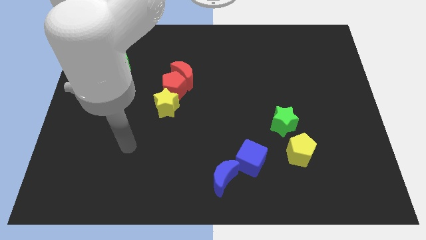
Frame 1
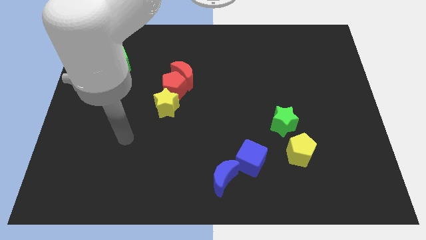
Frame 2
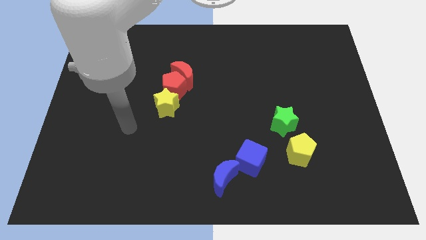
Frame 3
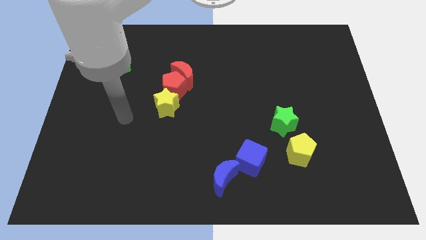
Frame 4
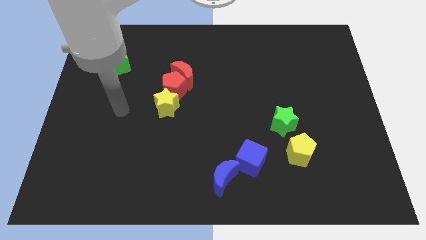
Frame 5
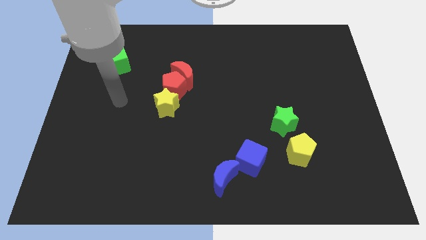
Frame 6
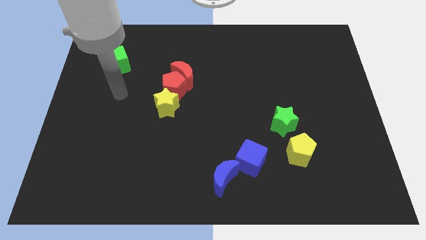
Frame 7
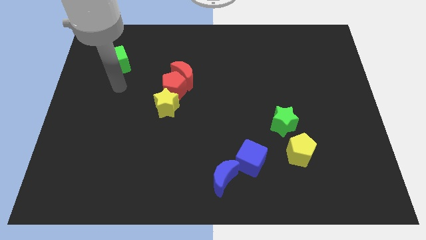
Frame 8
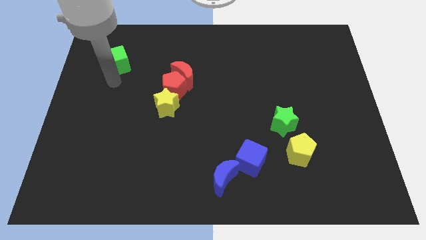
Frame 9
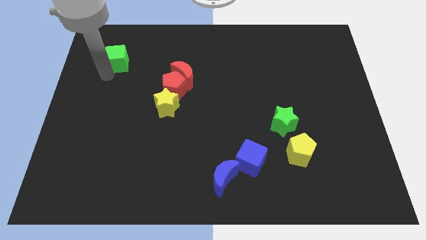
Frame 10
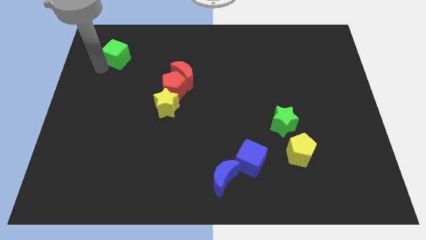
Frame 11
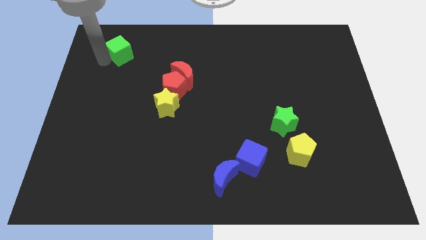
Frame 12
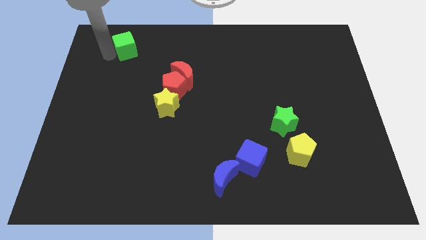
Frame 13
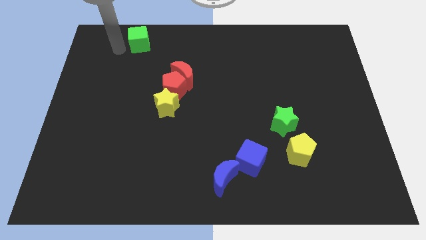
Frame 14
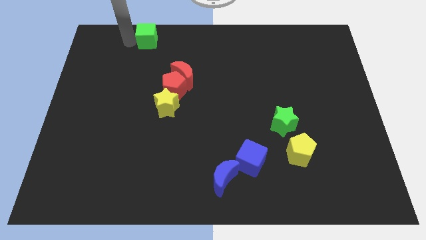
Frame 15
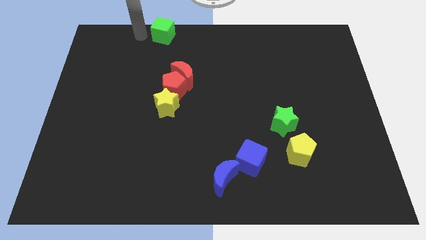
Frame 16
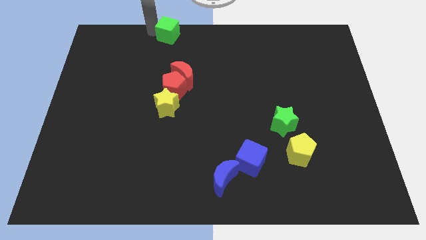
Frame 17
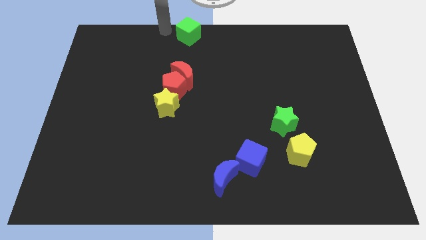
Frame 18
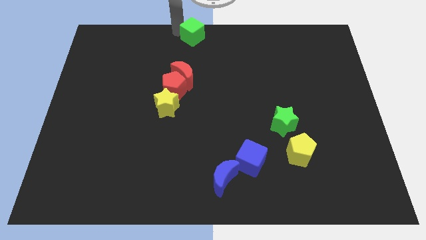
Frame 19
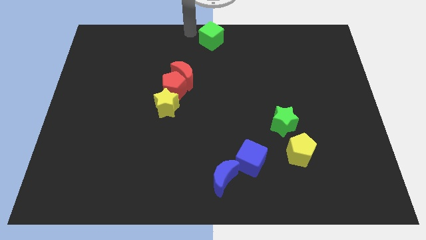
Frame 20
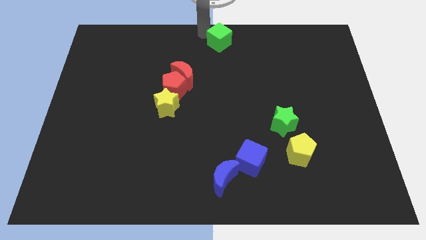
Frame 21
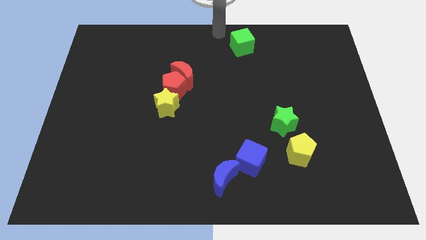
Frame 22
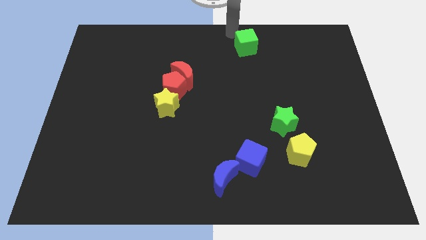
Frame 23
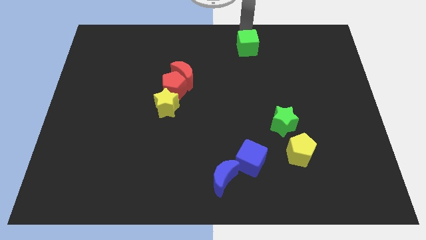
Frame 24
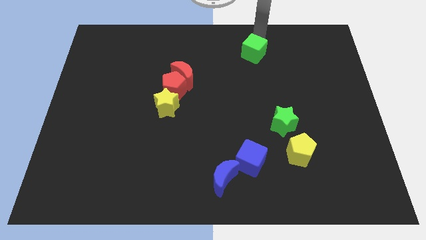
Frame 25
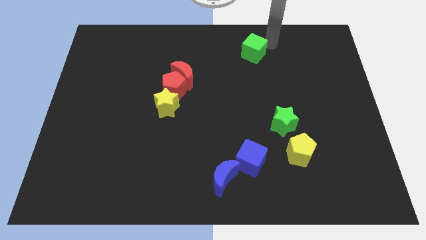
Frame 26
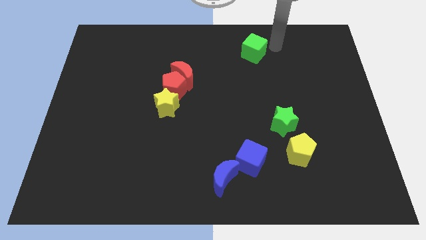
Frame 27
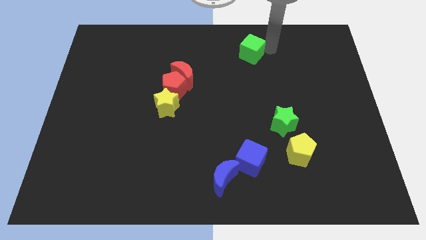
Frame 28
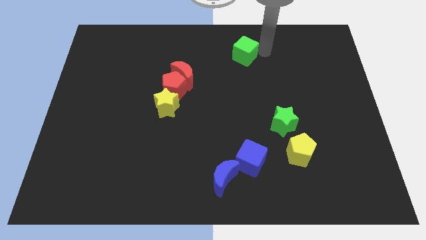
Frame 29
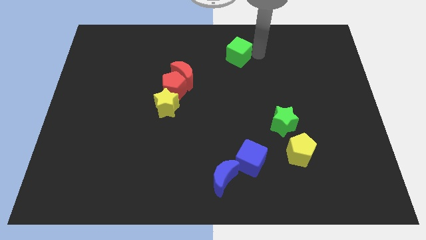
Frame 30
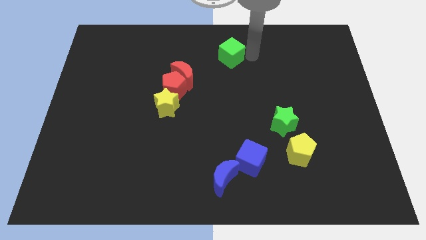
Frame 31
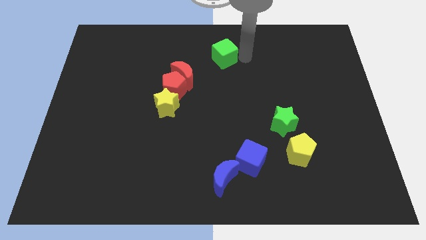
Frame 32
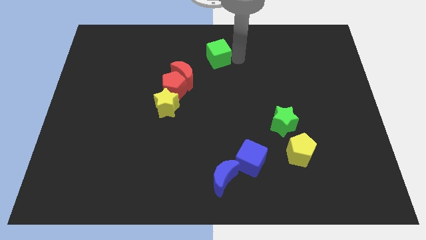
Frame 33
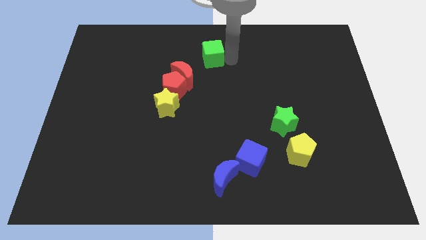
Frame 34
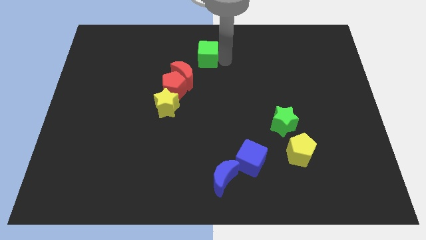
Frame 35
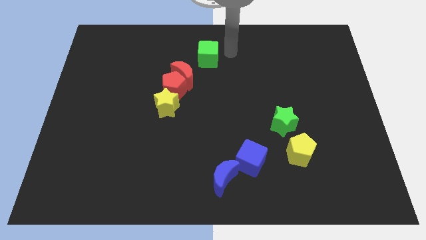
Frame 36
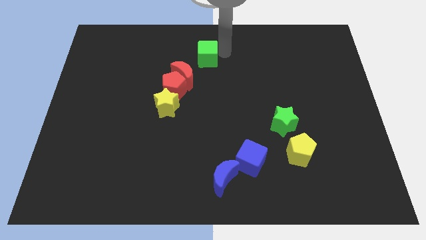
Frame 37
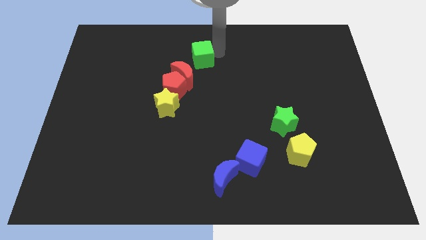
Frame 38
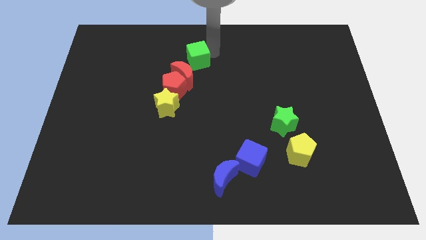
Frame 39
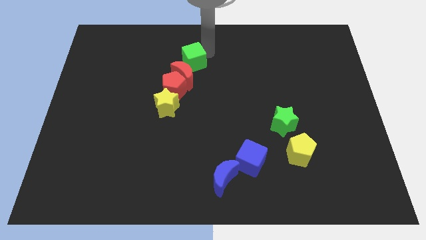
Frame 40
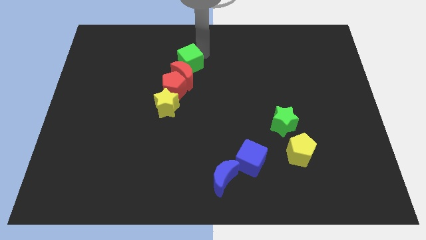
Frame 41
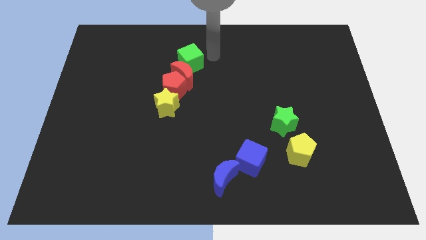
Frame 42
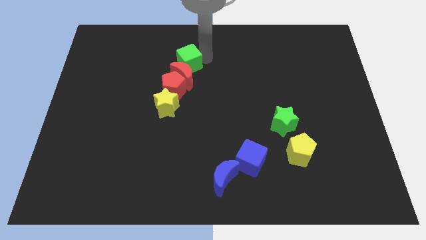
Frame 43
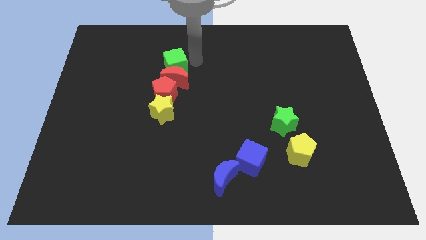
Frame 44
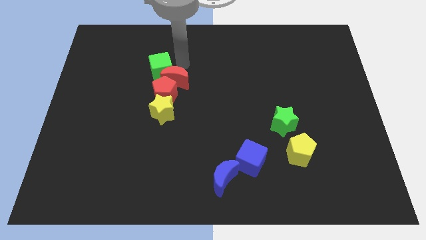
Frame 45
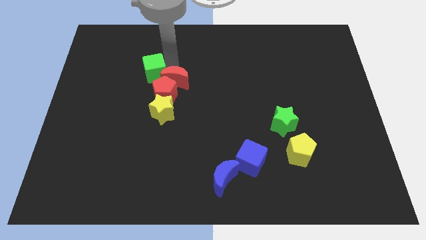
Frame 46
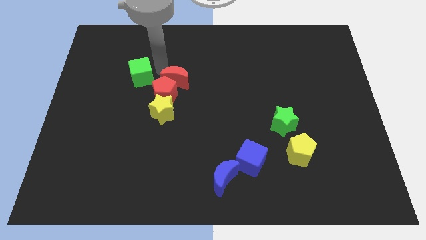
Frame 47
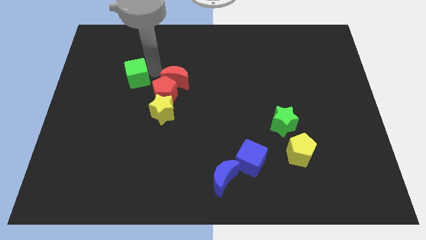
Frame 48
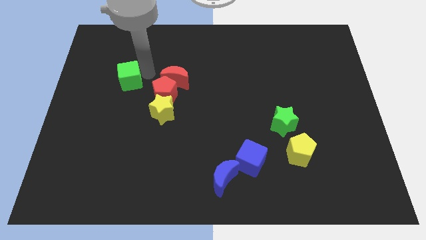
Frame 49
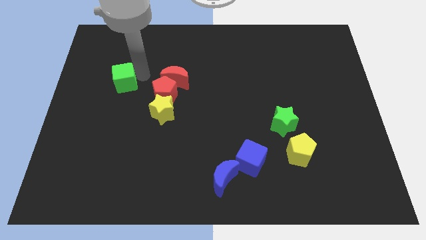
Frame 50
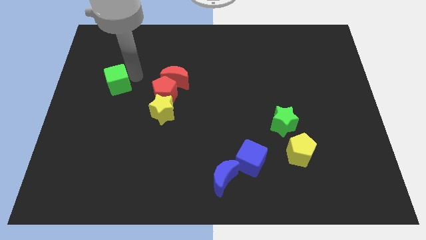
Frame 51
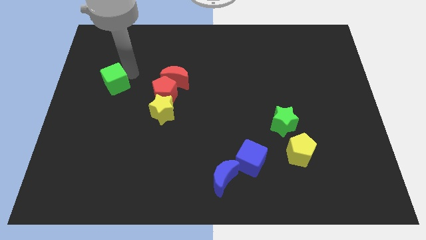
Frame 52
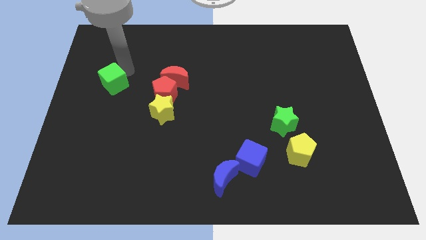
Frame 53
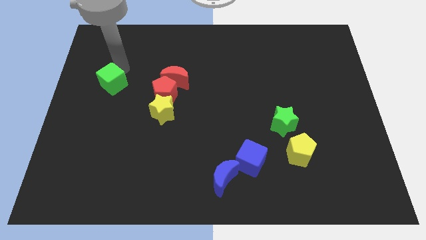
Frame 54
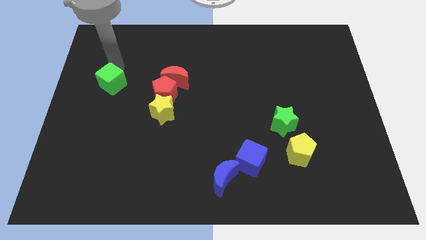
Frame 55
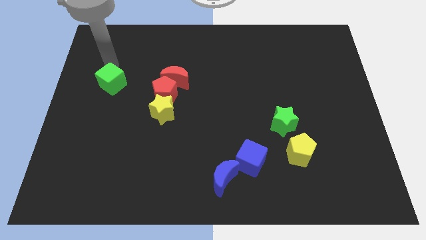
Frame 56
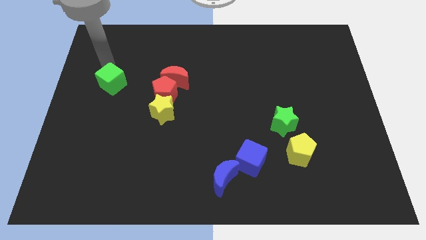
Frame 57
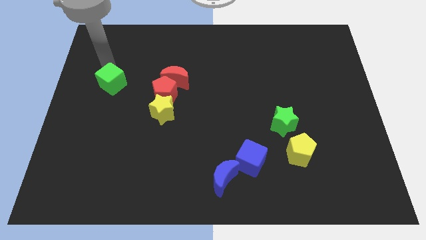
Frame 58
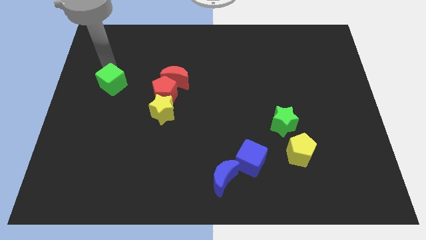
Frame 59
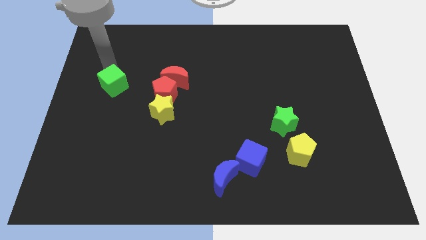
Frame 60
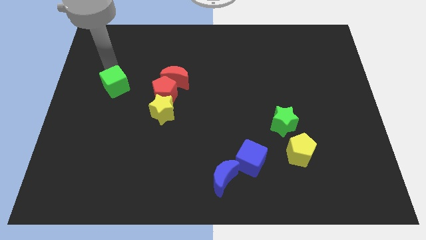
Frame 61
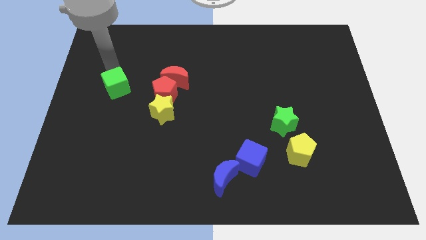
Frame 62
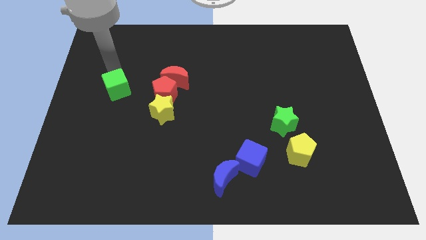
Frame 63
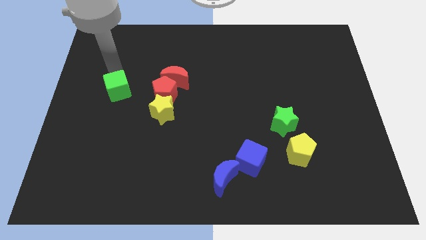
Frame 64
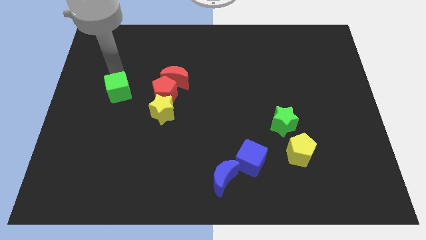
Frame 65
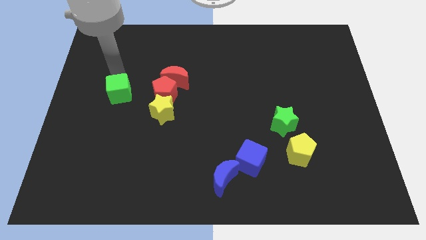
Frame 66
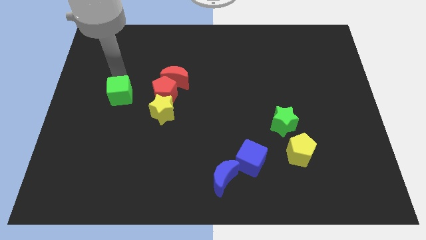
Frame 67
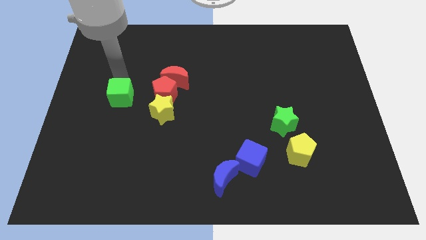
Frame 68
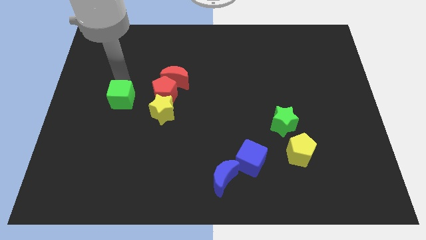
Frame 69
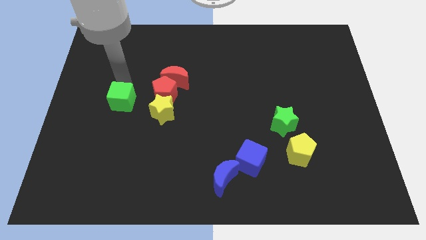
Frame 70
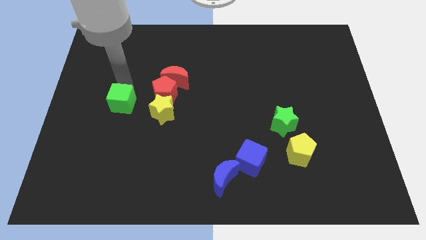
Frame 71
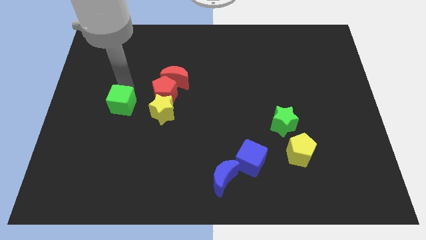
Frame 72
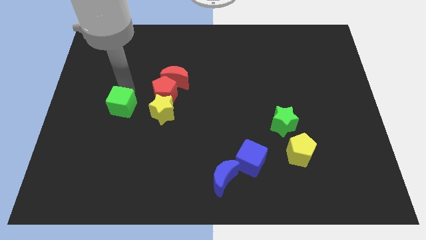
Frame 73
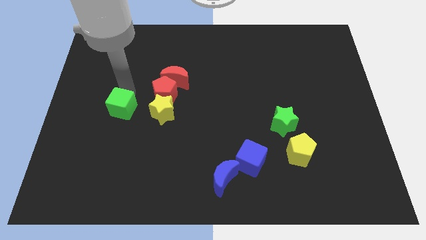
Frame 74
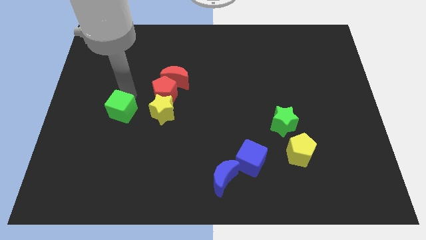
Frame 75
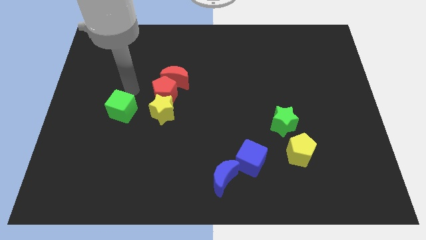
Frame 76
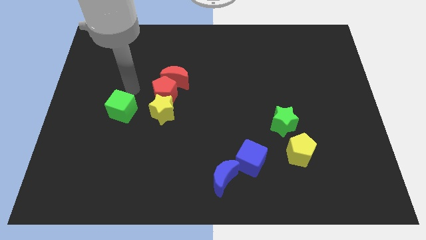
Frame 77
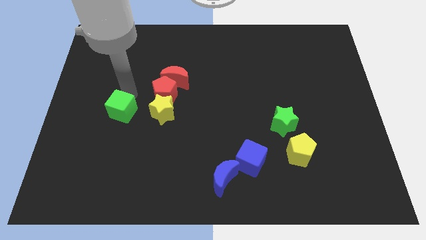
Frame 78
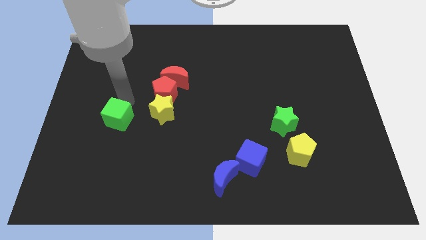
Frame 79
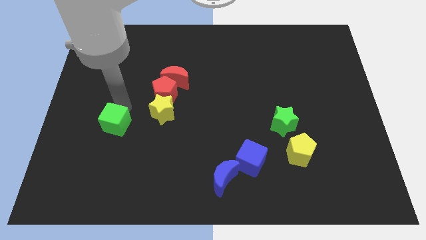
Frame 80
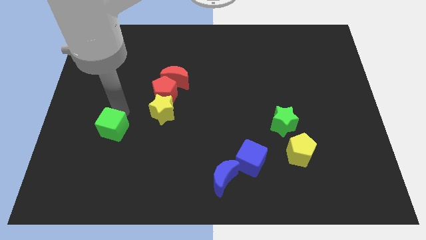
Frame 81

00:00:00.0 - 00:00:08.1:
move the green cube down
